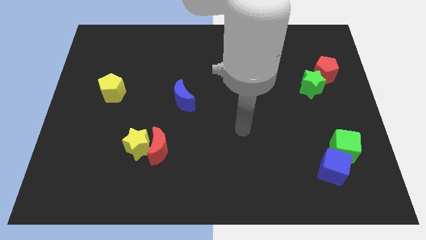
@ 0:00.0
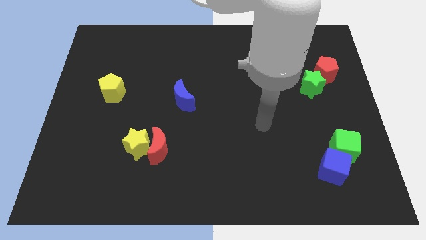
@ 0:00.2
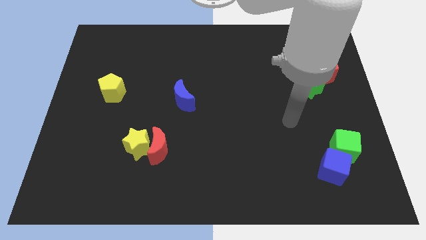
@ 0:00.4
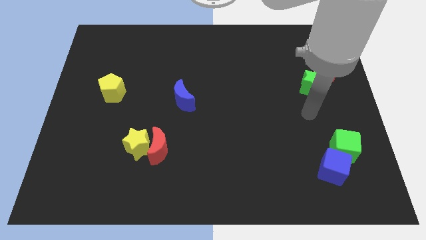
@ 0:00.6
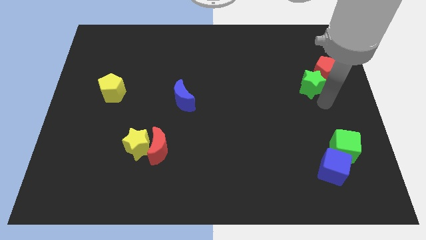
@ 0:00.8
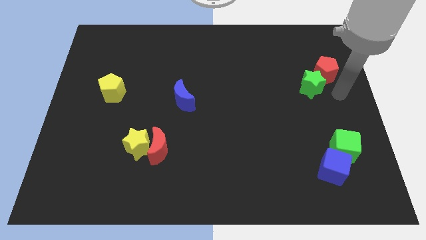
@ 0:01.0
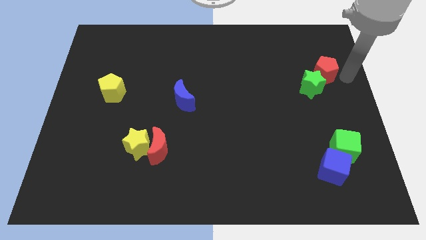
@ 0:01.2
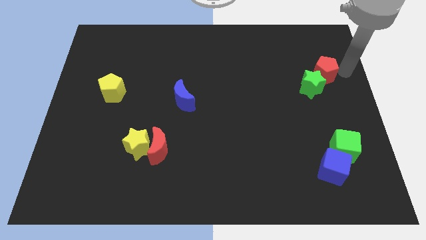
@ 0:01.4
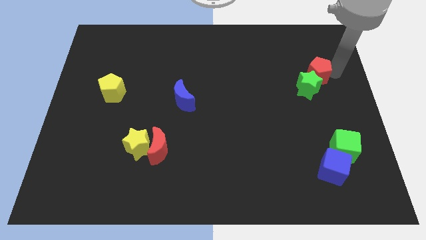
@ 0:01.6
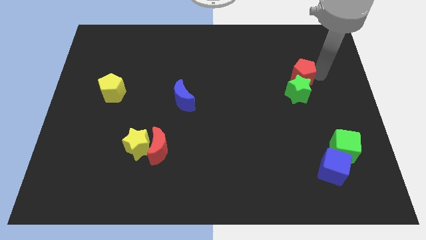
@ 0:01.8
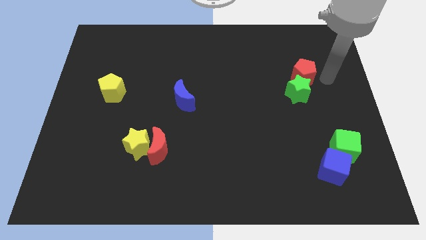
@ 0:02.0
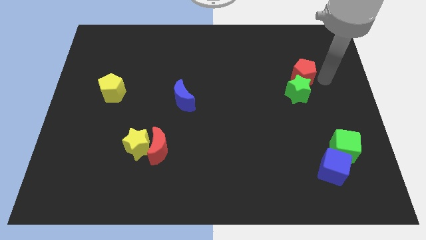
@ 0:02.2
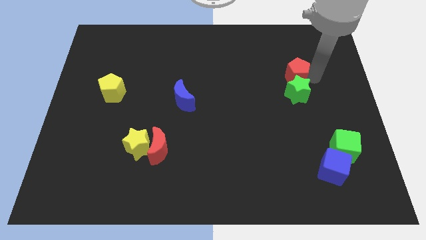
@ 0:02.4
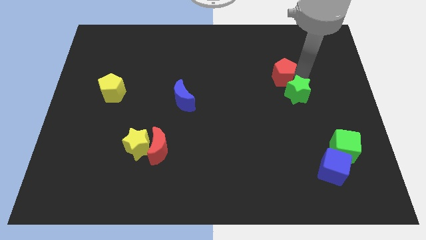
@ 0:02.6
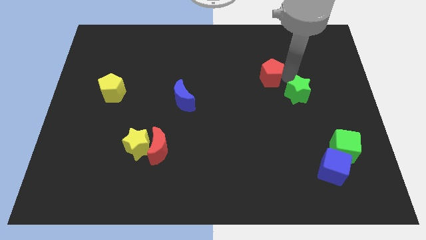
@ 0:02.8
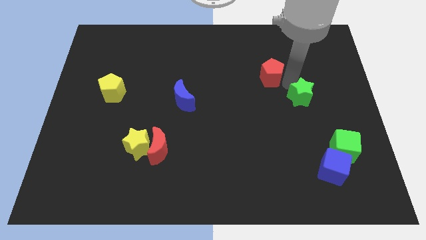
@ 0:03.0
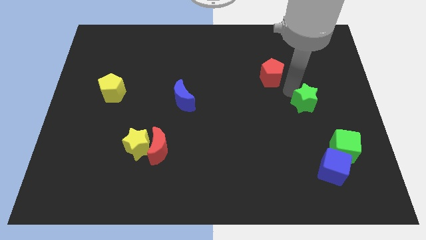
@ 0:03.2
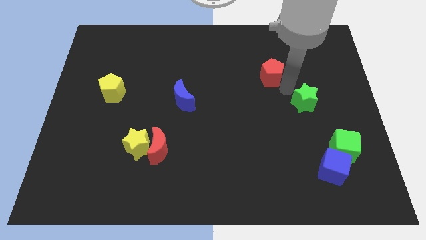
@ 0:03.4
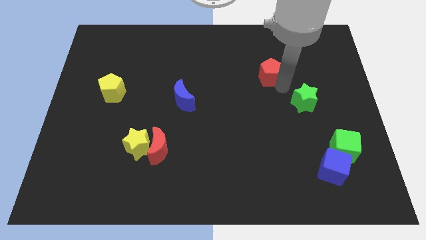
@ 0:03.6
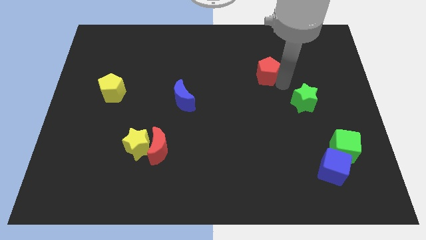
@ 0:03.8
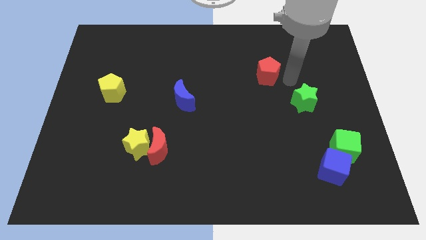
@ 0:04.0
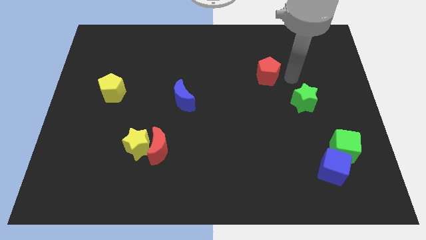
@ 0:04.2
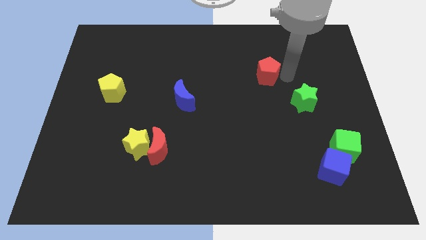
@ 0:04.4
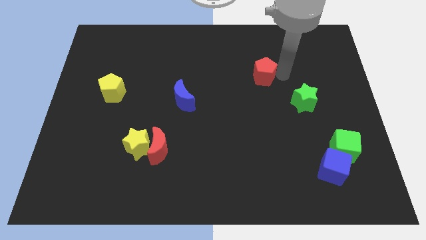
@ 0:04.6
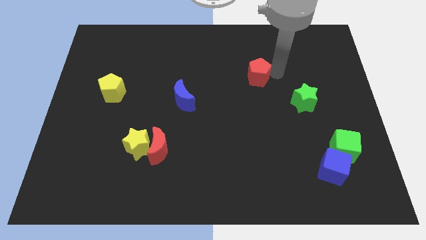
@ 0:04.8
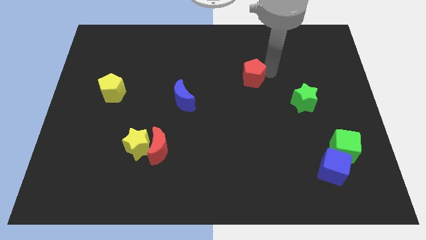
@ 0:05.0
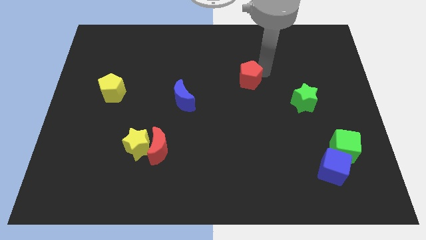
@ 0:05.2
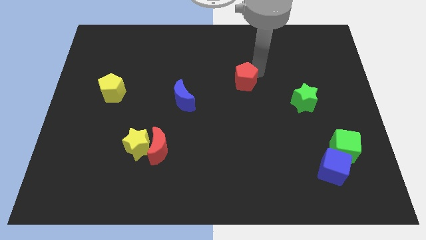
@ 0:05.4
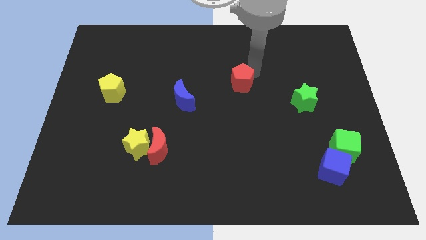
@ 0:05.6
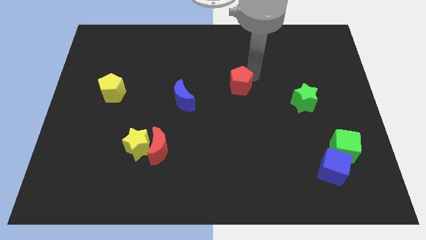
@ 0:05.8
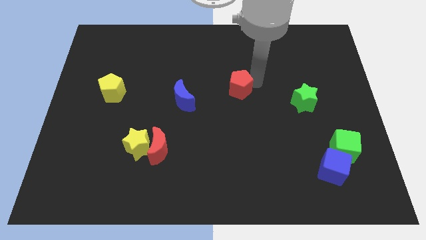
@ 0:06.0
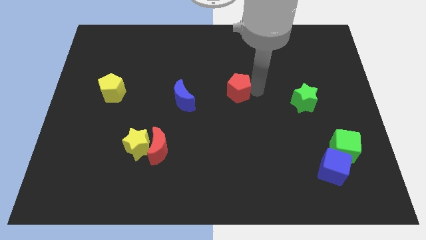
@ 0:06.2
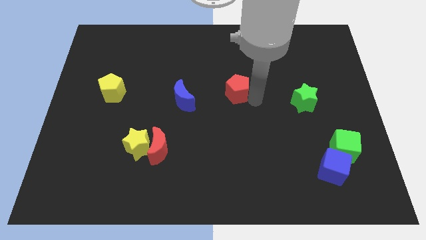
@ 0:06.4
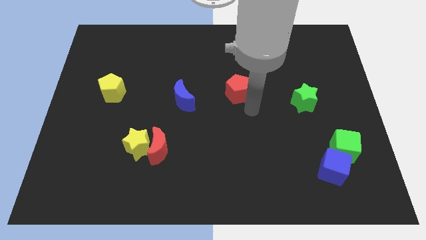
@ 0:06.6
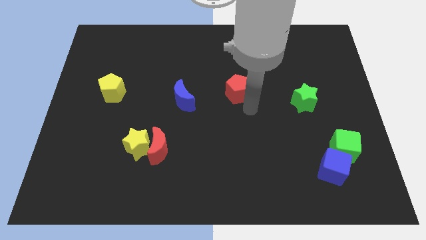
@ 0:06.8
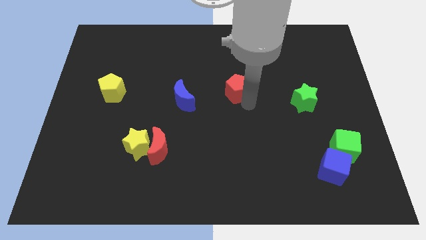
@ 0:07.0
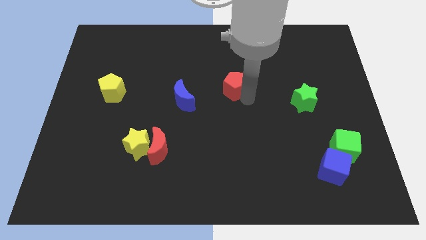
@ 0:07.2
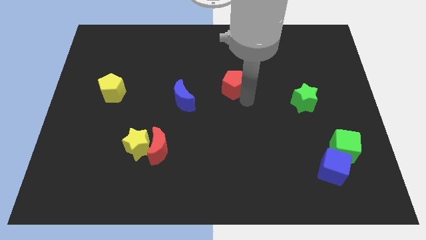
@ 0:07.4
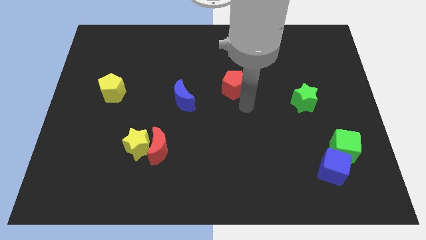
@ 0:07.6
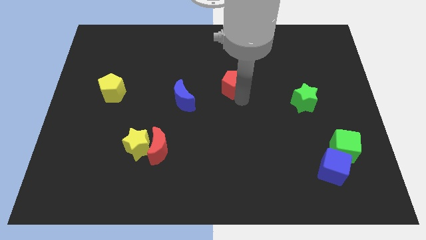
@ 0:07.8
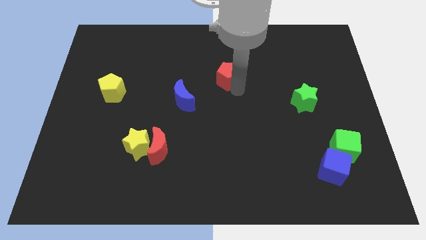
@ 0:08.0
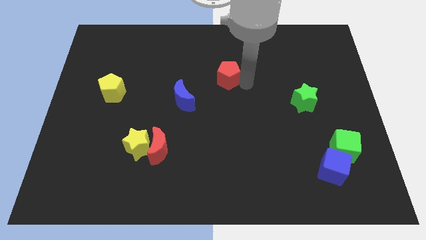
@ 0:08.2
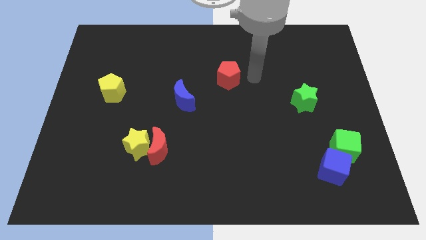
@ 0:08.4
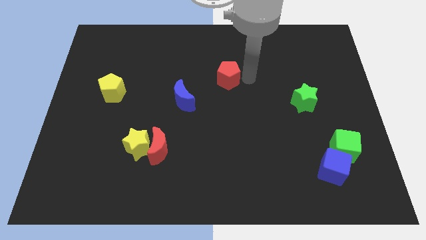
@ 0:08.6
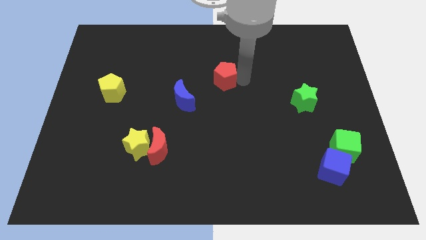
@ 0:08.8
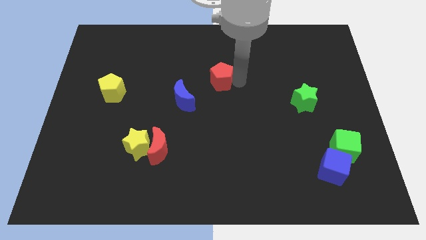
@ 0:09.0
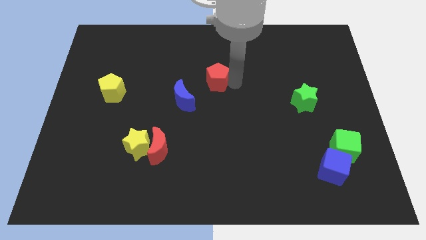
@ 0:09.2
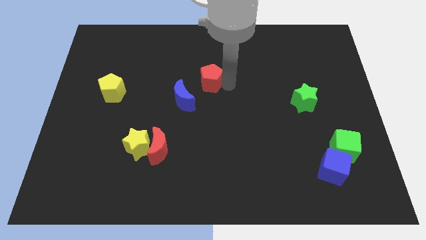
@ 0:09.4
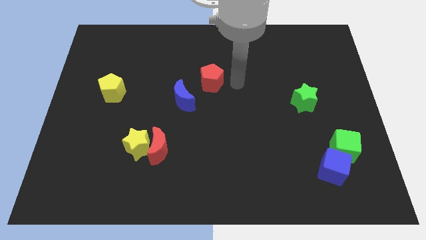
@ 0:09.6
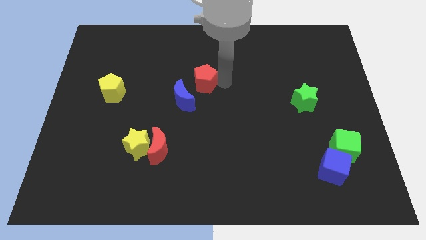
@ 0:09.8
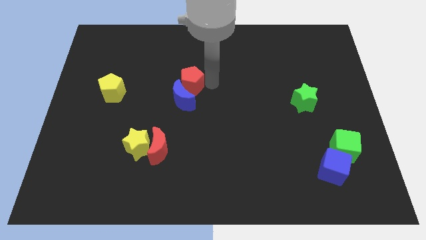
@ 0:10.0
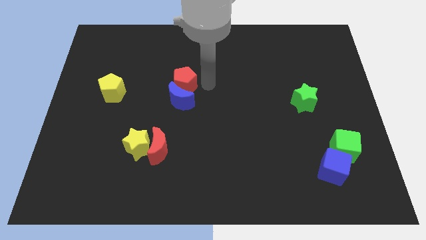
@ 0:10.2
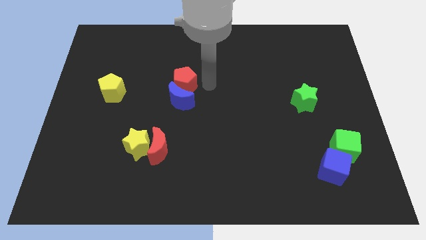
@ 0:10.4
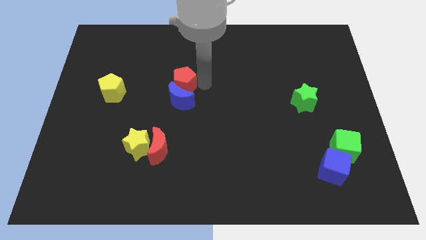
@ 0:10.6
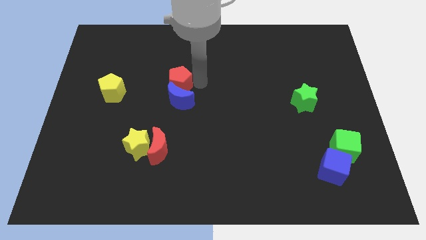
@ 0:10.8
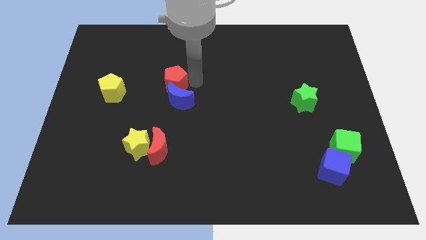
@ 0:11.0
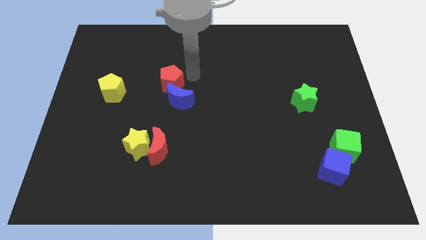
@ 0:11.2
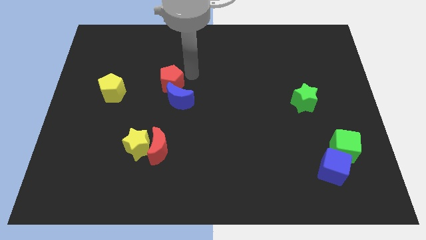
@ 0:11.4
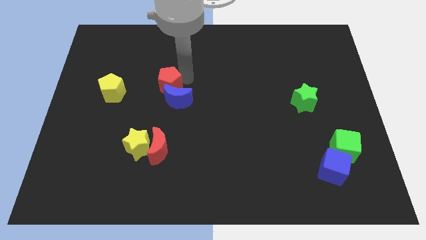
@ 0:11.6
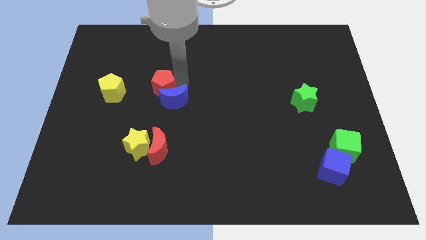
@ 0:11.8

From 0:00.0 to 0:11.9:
move the red pentagon left of the blue moon
